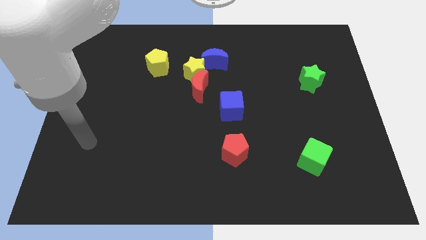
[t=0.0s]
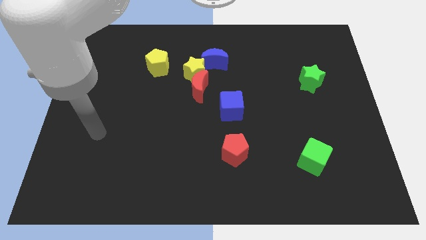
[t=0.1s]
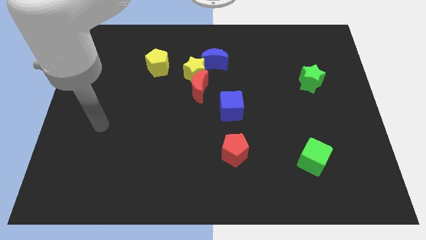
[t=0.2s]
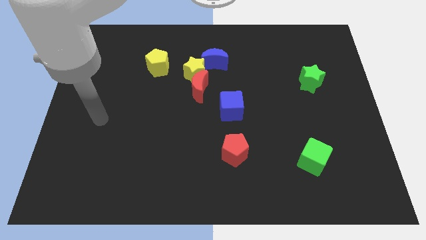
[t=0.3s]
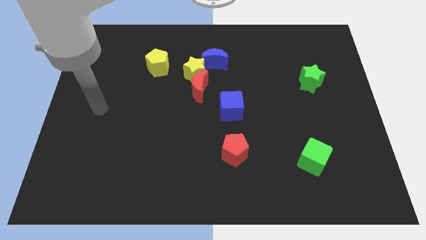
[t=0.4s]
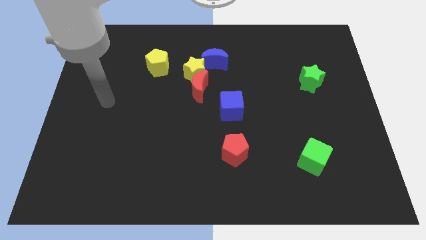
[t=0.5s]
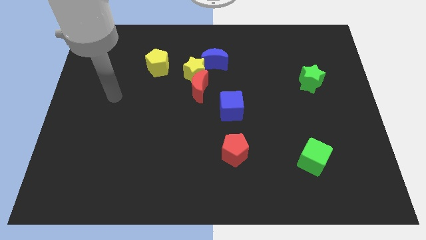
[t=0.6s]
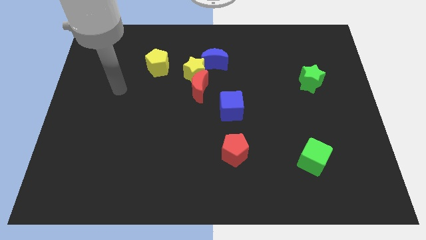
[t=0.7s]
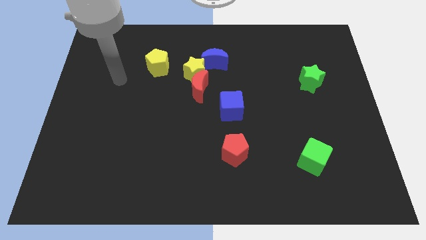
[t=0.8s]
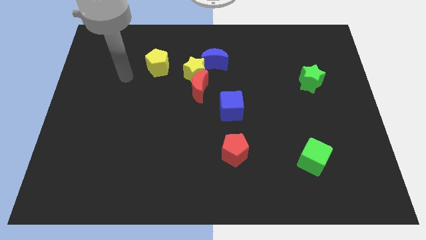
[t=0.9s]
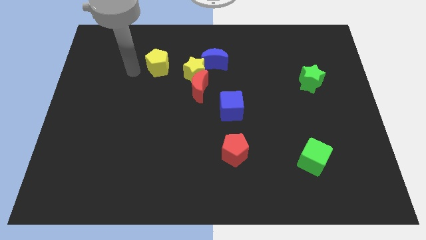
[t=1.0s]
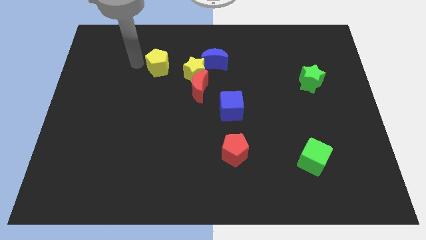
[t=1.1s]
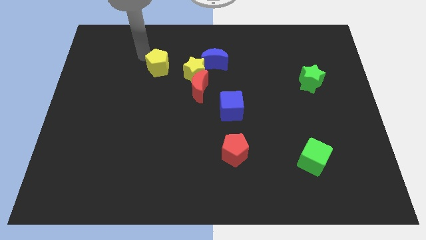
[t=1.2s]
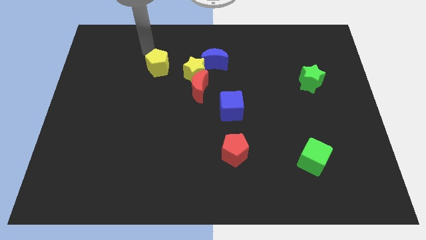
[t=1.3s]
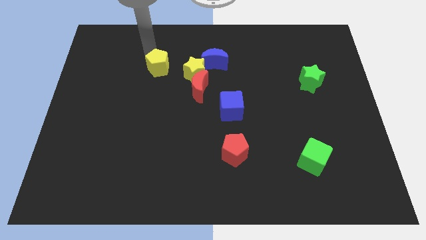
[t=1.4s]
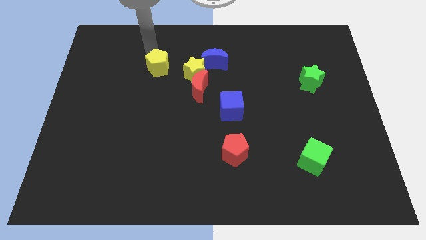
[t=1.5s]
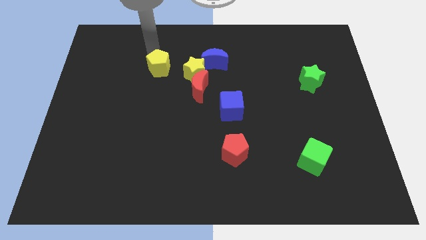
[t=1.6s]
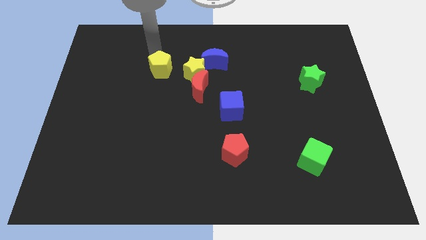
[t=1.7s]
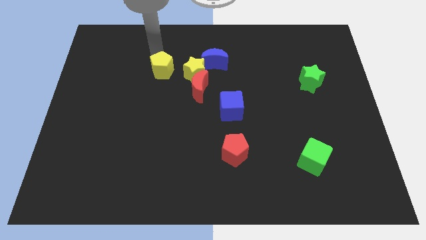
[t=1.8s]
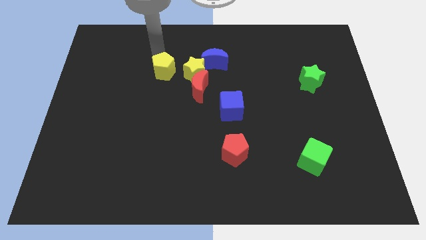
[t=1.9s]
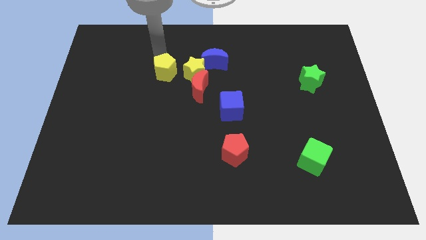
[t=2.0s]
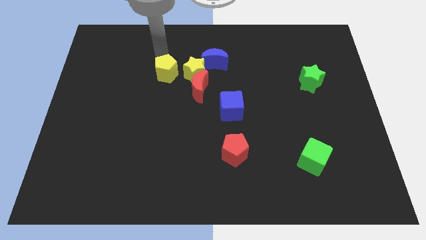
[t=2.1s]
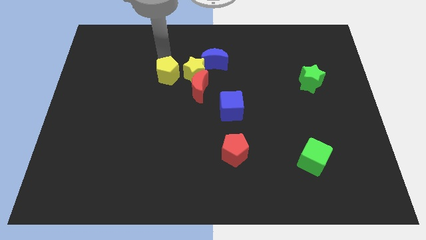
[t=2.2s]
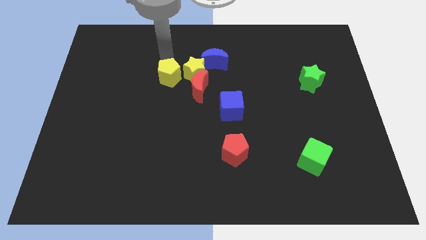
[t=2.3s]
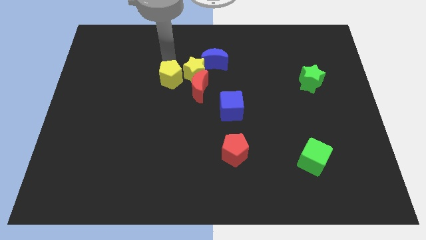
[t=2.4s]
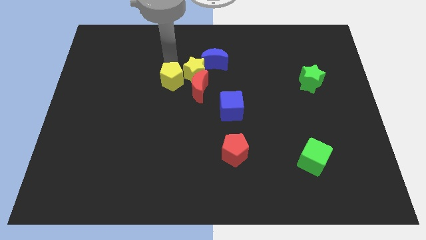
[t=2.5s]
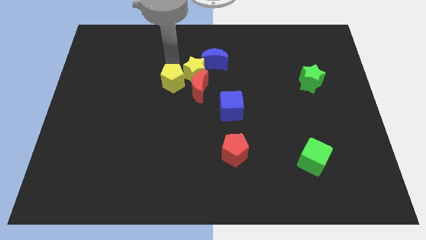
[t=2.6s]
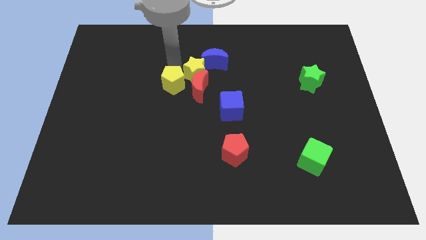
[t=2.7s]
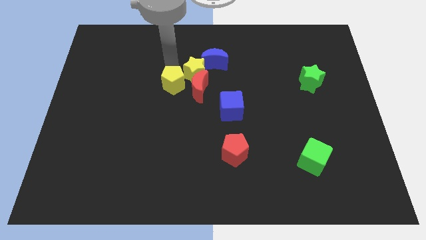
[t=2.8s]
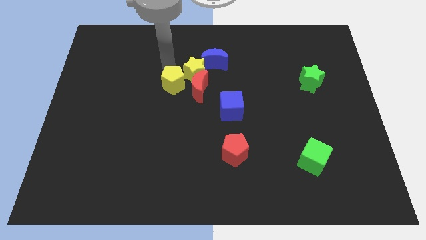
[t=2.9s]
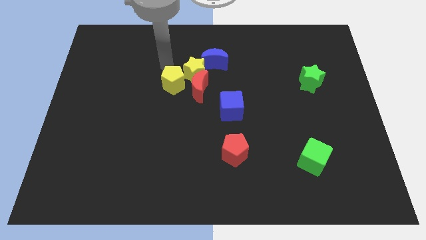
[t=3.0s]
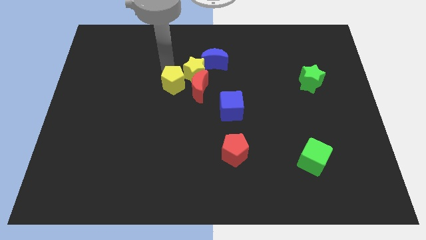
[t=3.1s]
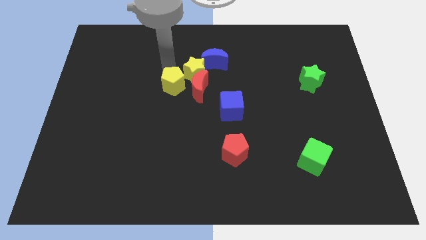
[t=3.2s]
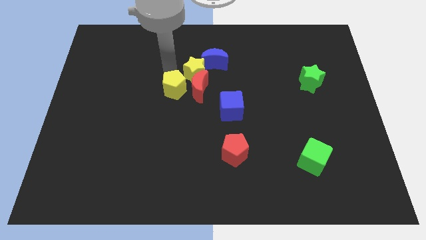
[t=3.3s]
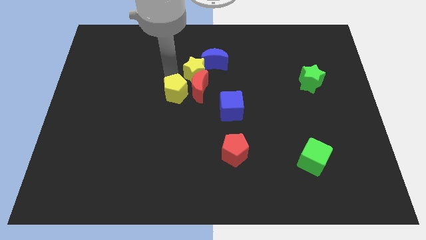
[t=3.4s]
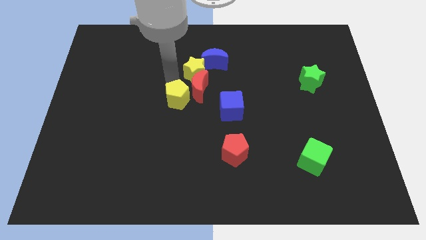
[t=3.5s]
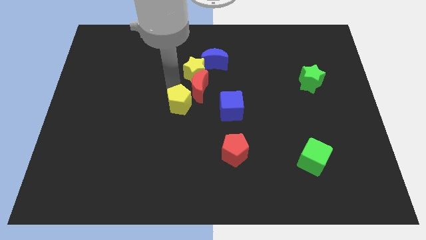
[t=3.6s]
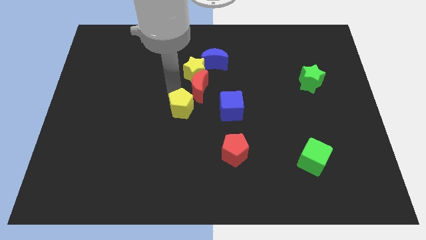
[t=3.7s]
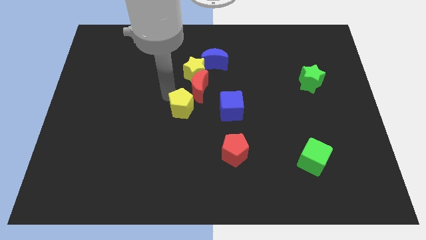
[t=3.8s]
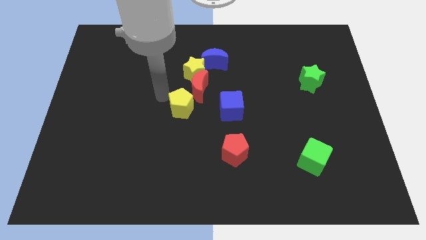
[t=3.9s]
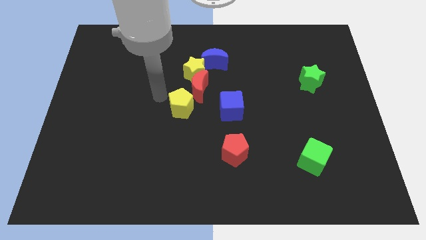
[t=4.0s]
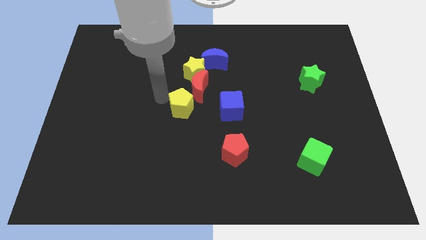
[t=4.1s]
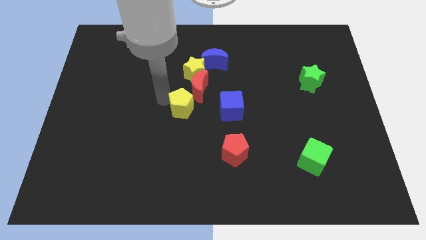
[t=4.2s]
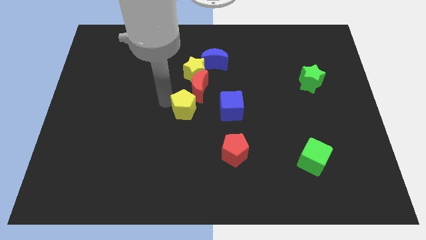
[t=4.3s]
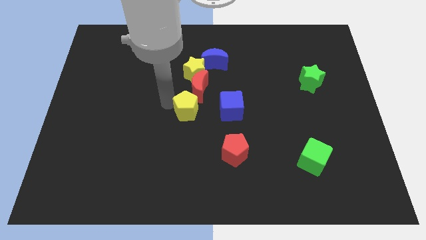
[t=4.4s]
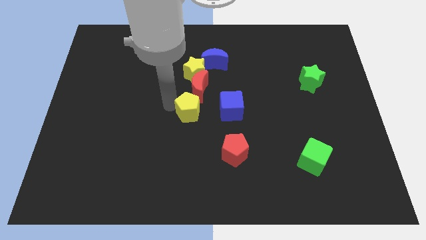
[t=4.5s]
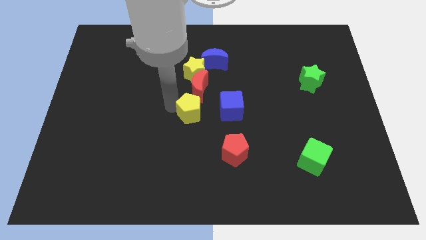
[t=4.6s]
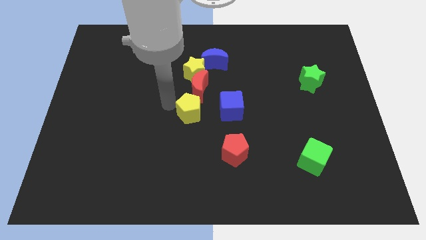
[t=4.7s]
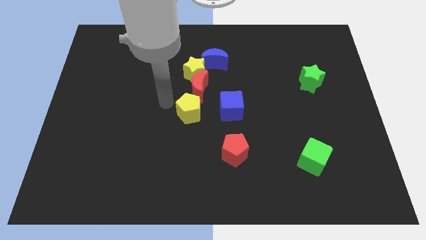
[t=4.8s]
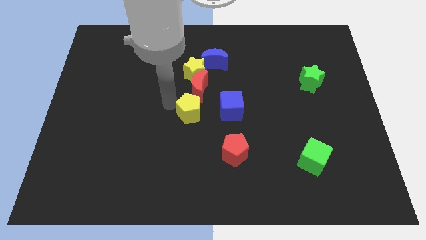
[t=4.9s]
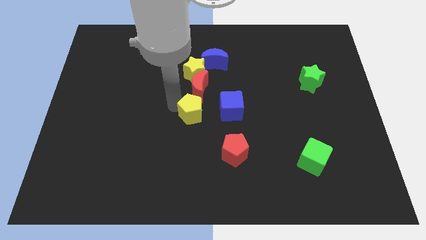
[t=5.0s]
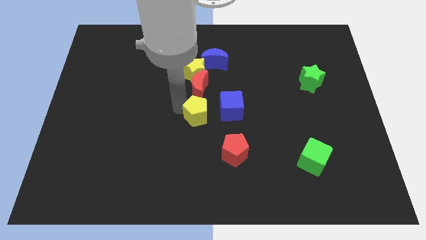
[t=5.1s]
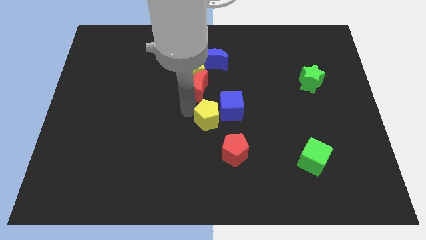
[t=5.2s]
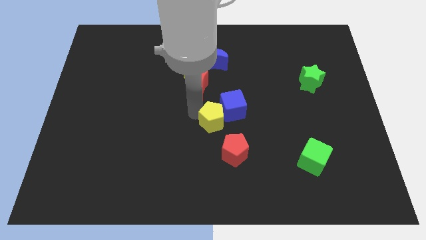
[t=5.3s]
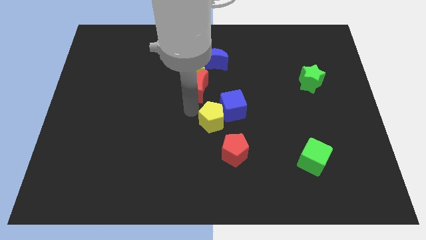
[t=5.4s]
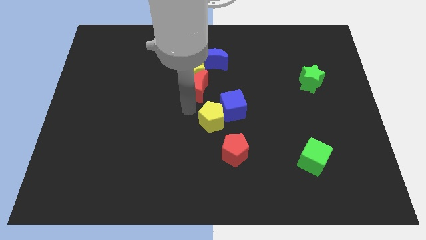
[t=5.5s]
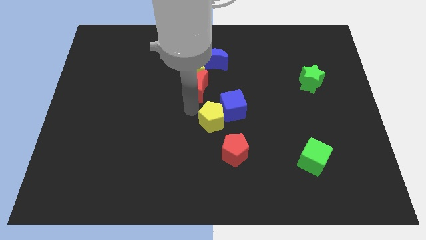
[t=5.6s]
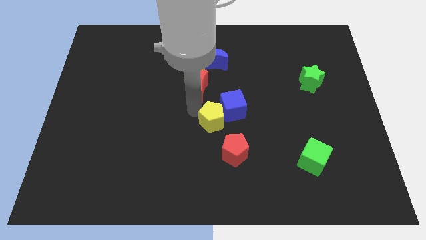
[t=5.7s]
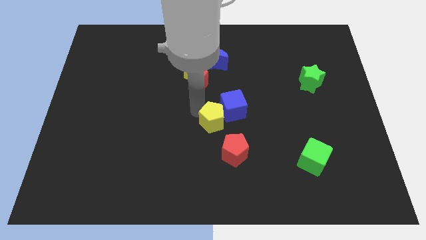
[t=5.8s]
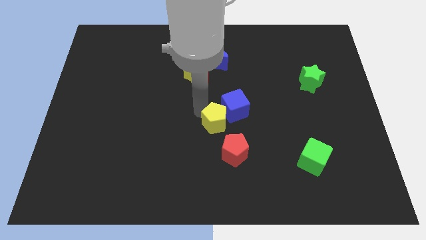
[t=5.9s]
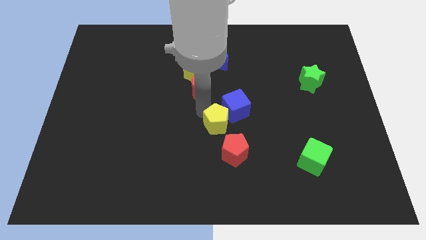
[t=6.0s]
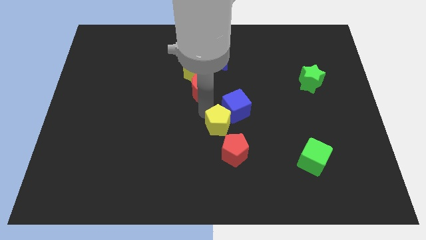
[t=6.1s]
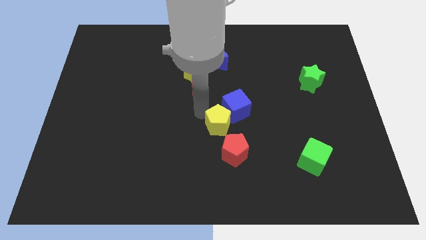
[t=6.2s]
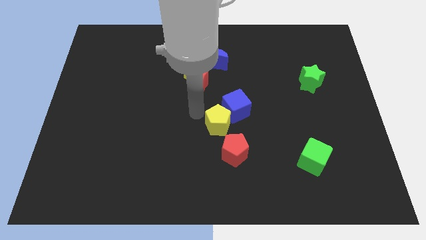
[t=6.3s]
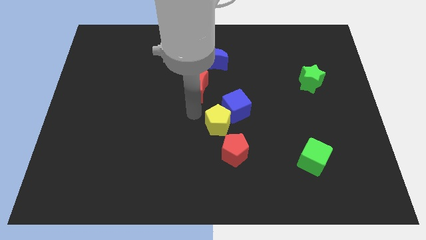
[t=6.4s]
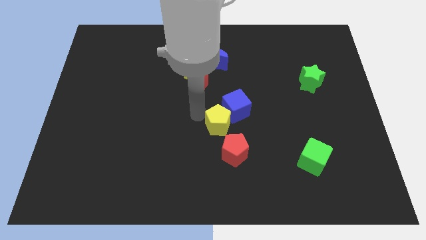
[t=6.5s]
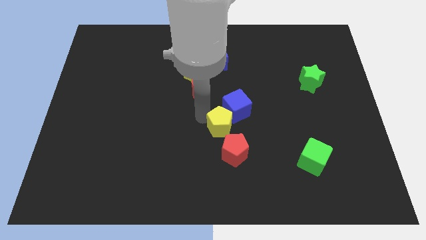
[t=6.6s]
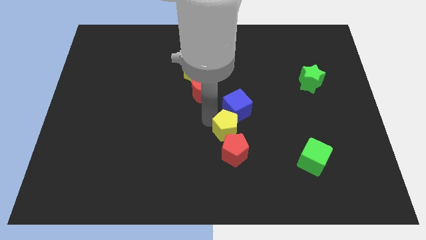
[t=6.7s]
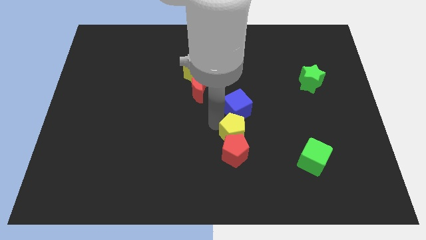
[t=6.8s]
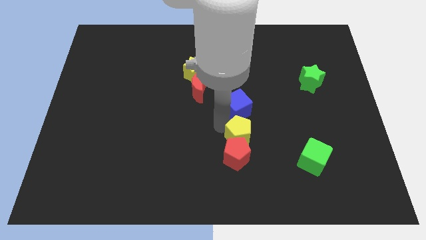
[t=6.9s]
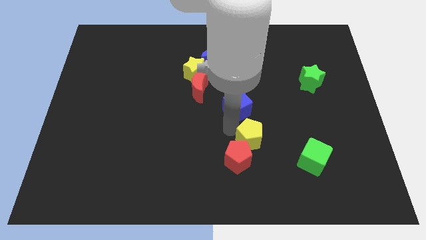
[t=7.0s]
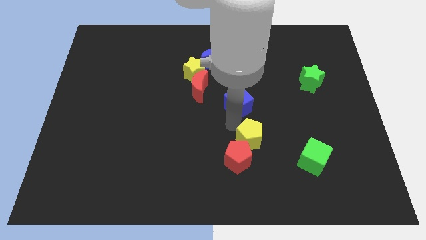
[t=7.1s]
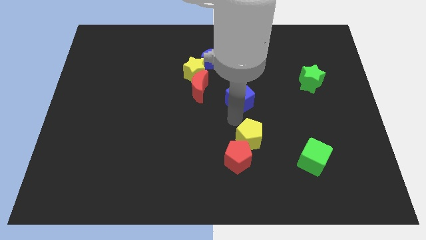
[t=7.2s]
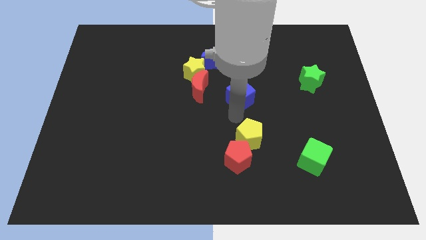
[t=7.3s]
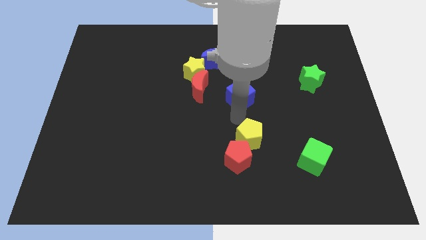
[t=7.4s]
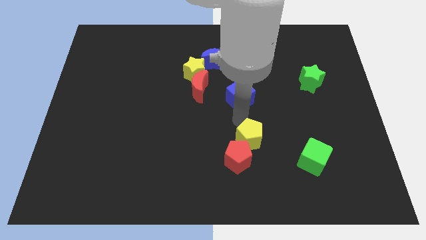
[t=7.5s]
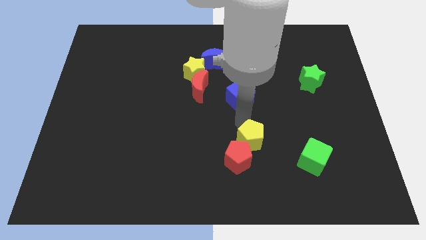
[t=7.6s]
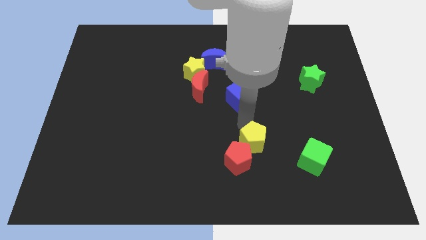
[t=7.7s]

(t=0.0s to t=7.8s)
put the yellow pentagon left of the green cube
